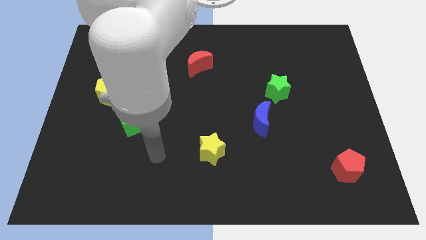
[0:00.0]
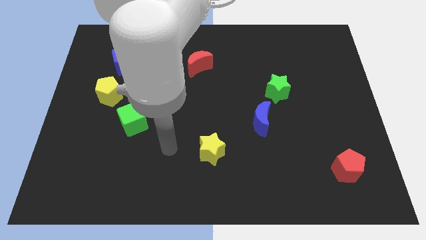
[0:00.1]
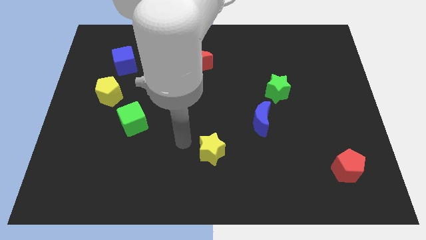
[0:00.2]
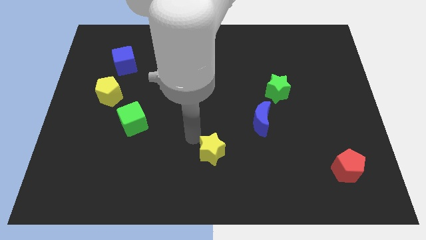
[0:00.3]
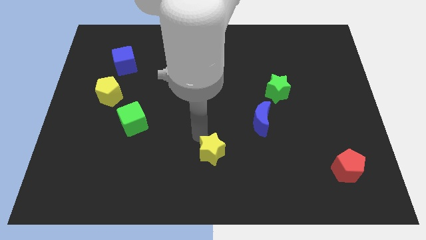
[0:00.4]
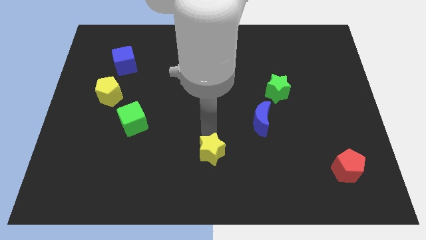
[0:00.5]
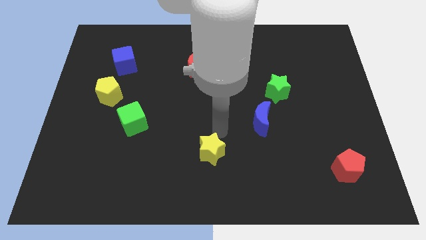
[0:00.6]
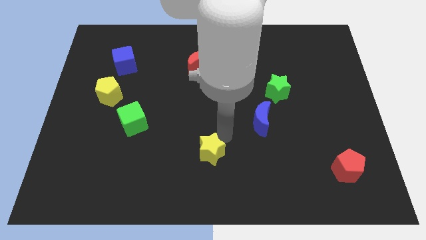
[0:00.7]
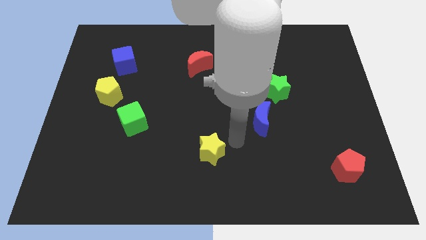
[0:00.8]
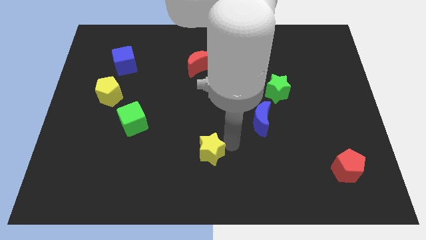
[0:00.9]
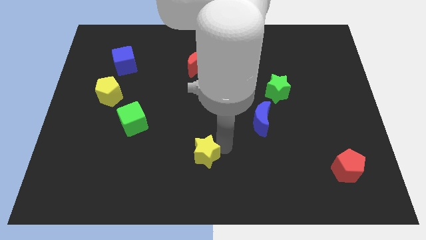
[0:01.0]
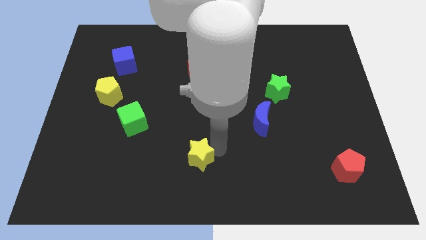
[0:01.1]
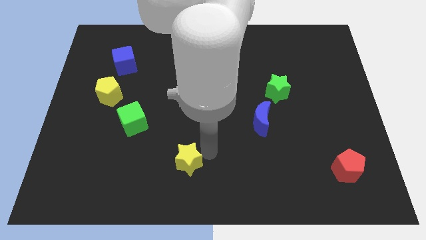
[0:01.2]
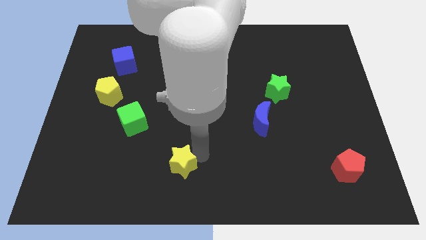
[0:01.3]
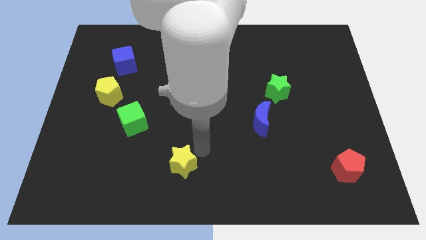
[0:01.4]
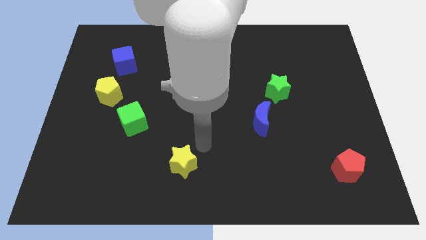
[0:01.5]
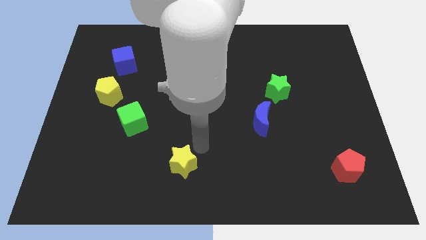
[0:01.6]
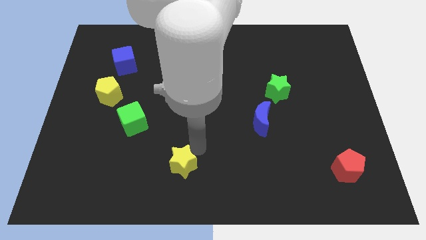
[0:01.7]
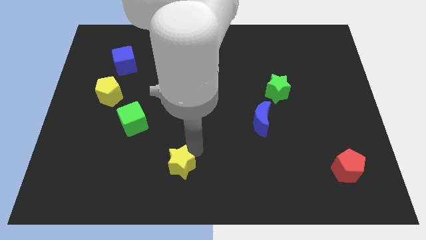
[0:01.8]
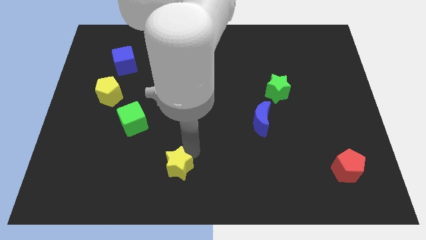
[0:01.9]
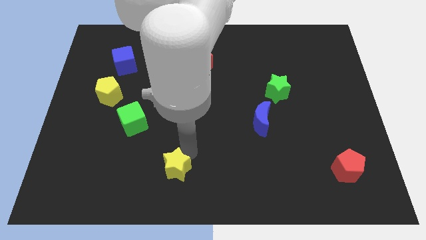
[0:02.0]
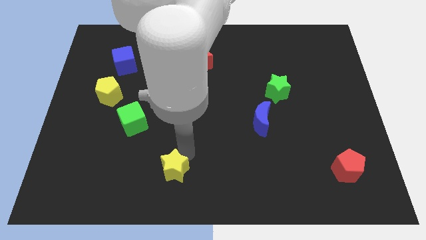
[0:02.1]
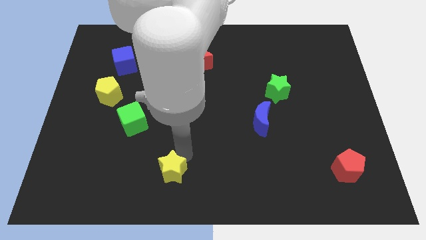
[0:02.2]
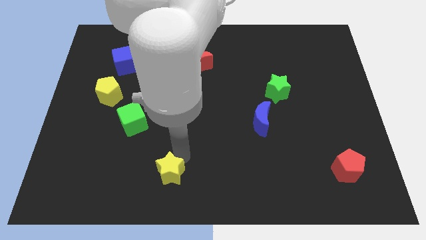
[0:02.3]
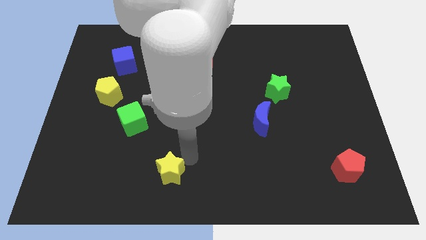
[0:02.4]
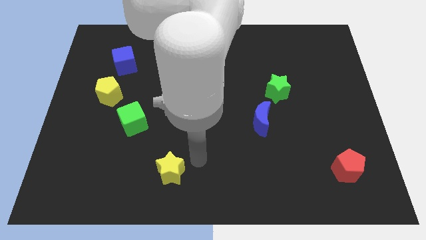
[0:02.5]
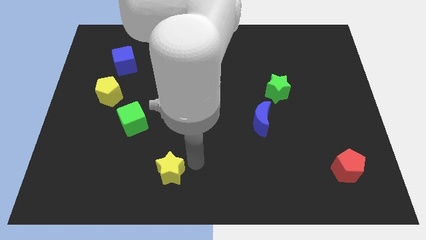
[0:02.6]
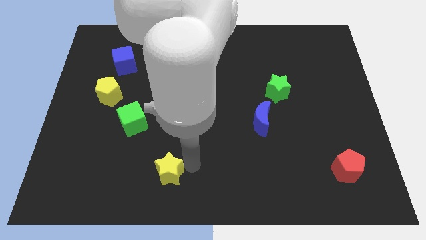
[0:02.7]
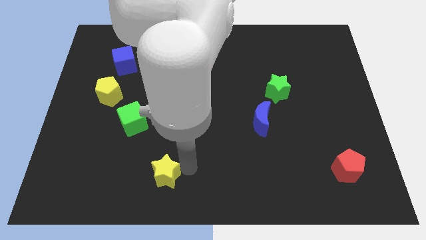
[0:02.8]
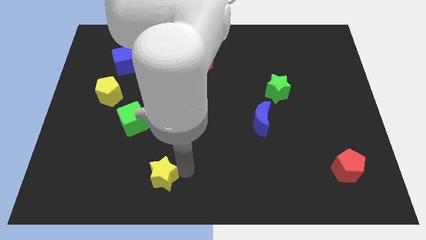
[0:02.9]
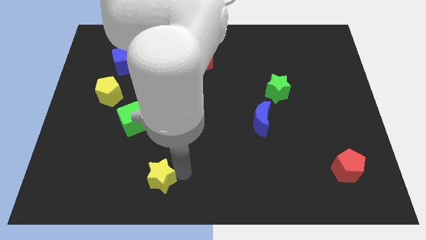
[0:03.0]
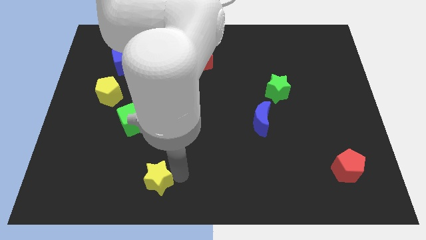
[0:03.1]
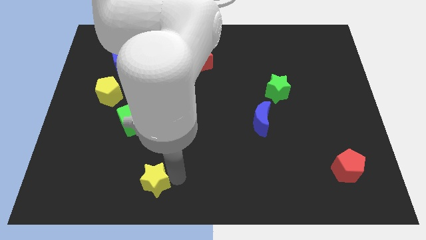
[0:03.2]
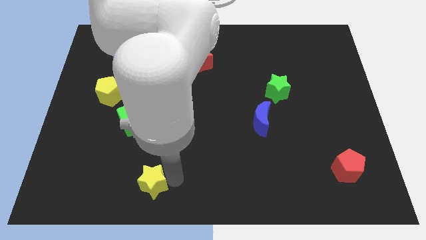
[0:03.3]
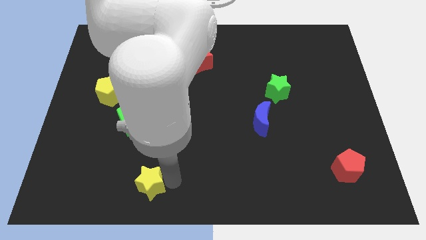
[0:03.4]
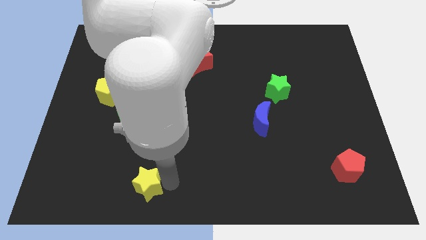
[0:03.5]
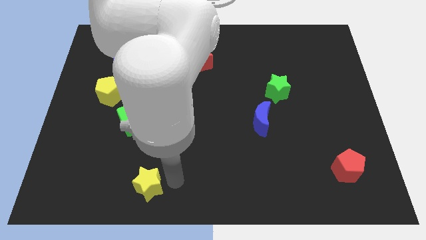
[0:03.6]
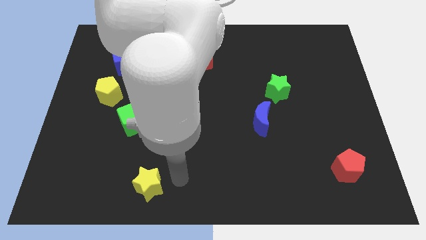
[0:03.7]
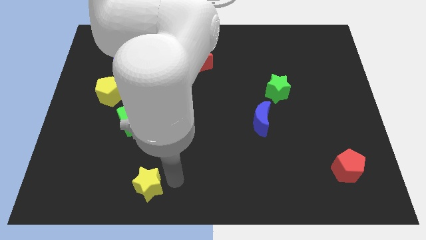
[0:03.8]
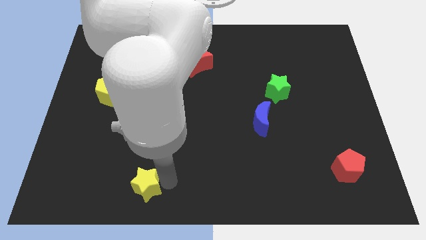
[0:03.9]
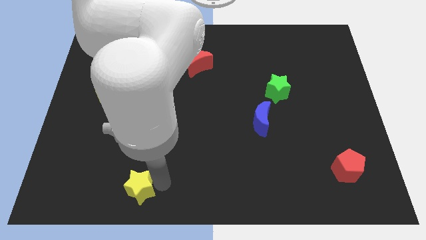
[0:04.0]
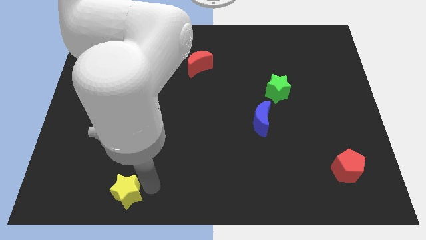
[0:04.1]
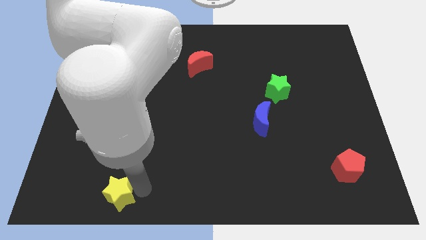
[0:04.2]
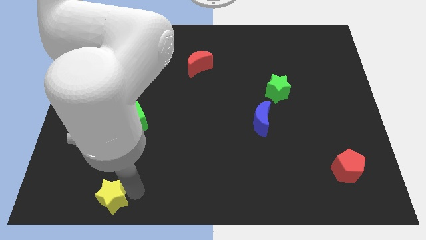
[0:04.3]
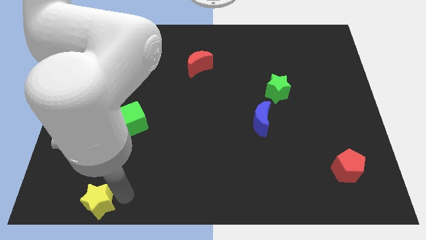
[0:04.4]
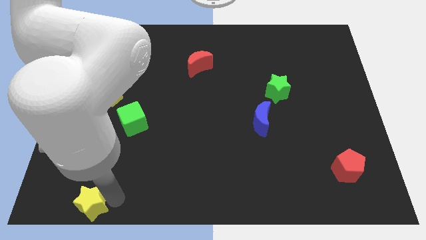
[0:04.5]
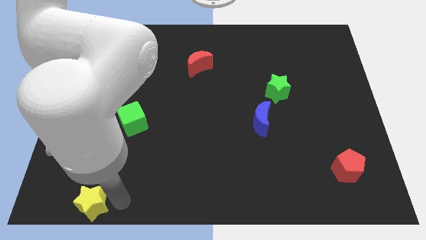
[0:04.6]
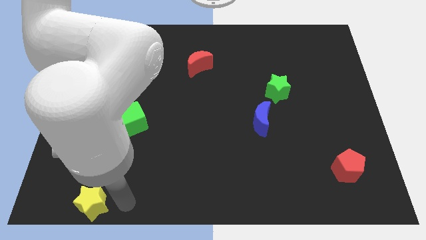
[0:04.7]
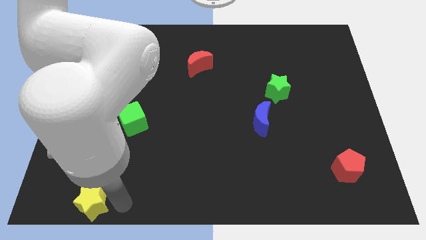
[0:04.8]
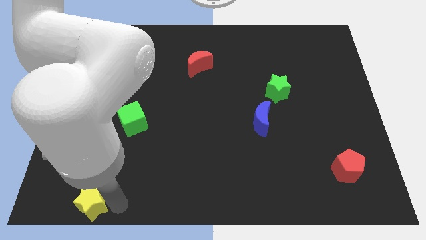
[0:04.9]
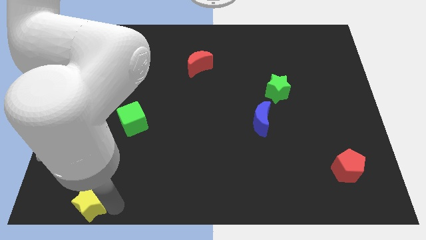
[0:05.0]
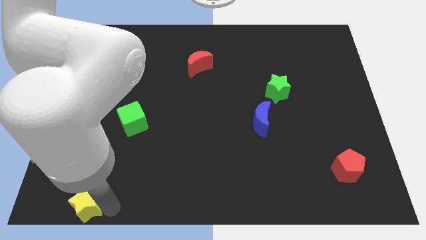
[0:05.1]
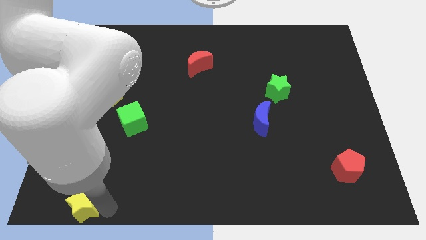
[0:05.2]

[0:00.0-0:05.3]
slide the yellow star to the lower left corner

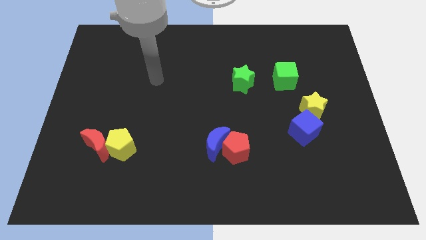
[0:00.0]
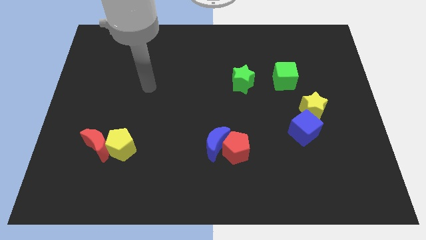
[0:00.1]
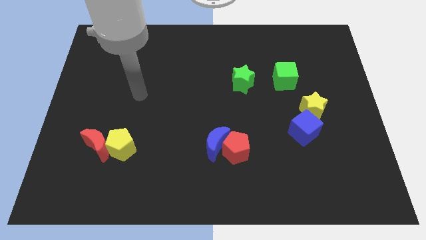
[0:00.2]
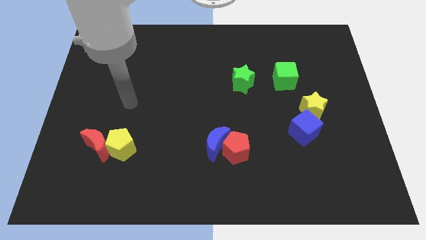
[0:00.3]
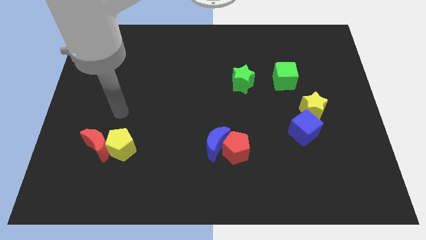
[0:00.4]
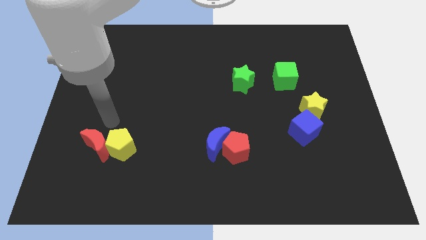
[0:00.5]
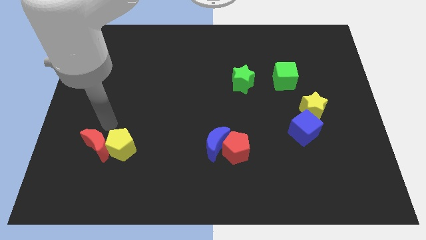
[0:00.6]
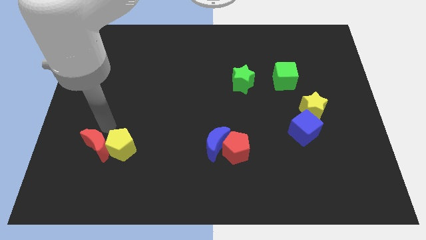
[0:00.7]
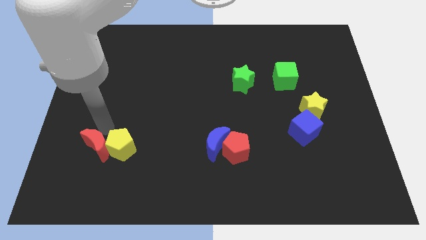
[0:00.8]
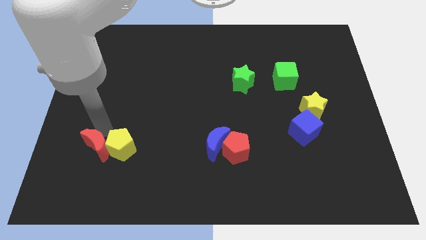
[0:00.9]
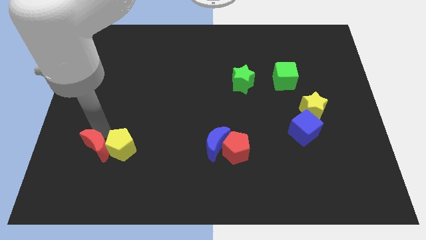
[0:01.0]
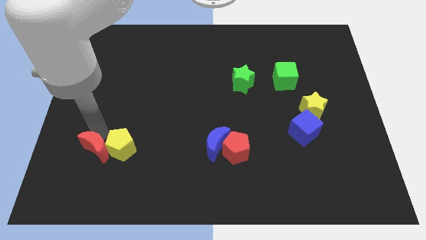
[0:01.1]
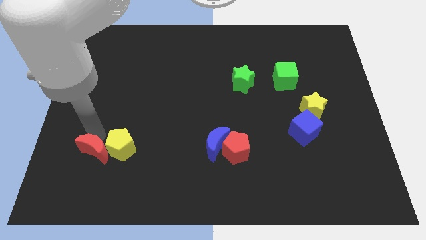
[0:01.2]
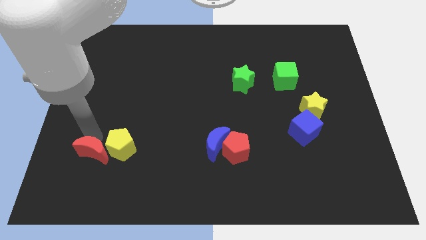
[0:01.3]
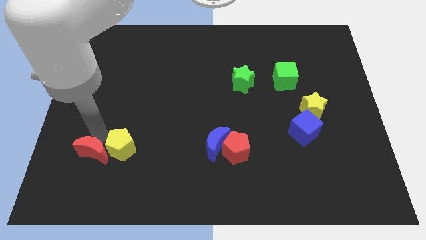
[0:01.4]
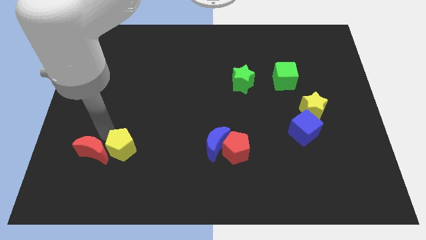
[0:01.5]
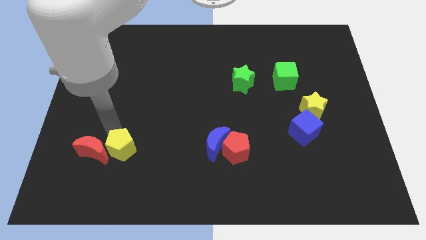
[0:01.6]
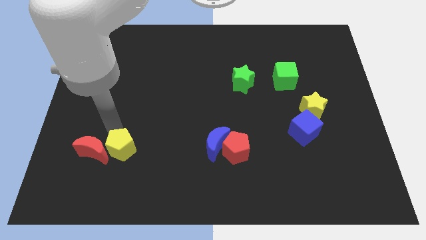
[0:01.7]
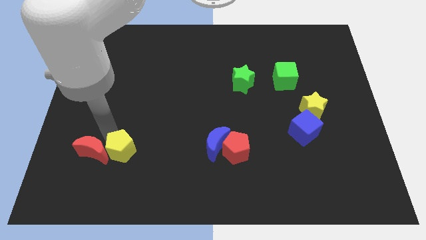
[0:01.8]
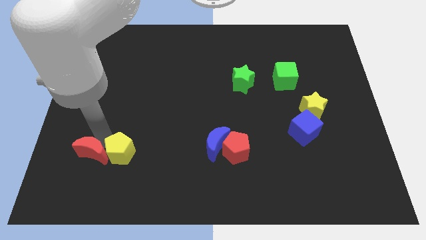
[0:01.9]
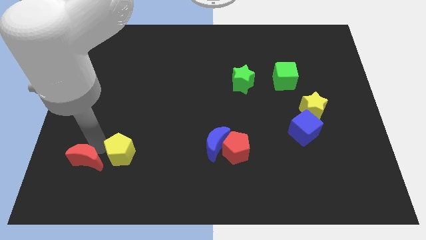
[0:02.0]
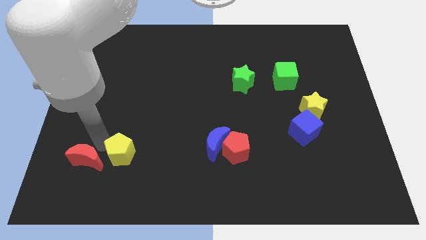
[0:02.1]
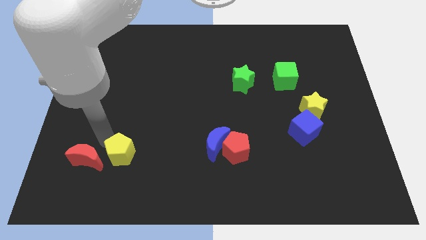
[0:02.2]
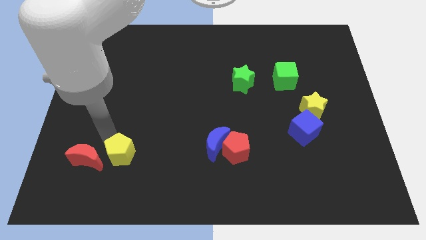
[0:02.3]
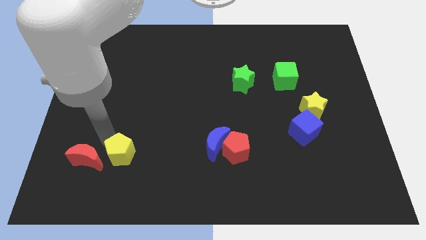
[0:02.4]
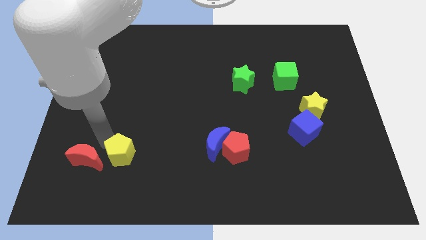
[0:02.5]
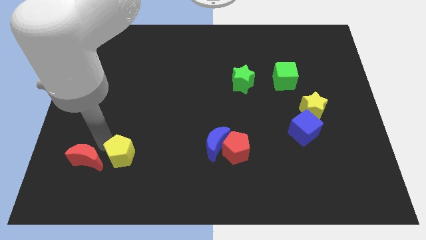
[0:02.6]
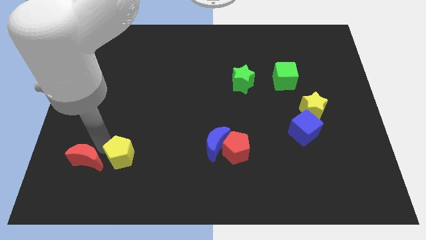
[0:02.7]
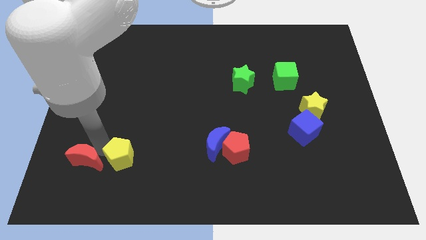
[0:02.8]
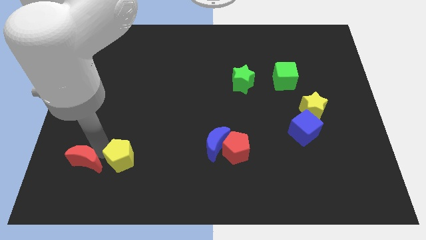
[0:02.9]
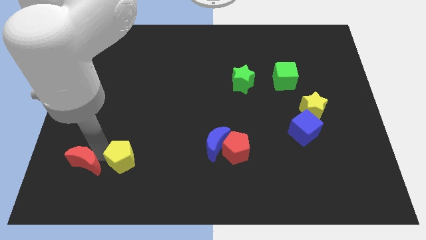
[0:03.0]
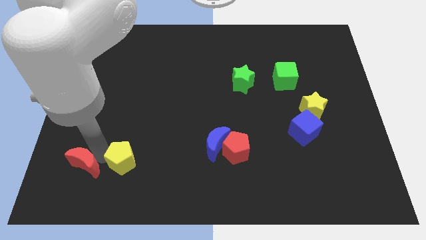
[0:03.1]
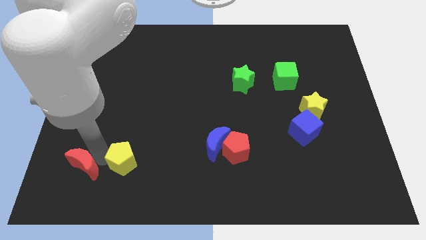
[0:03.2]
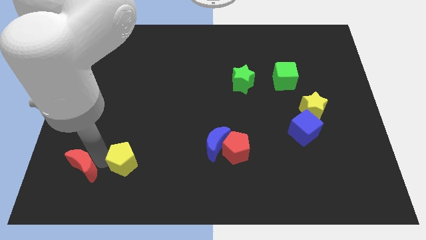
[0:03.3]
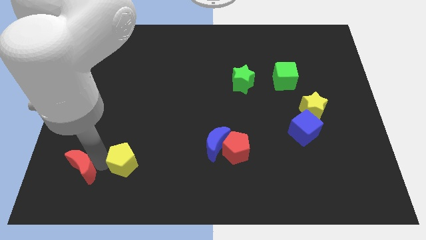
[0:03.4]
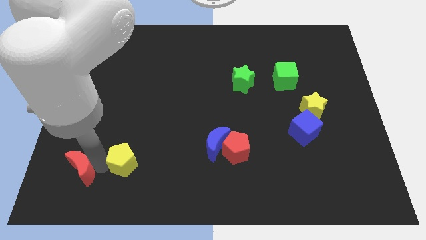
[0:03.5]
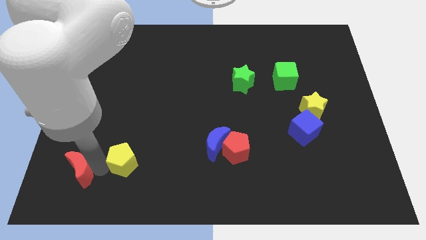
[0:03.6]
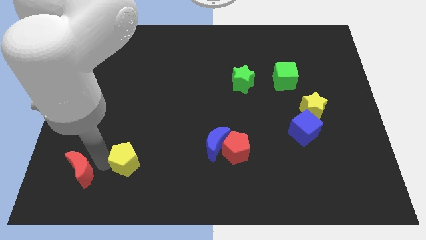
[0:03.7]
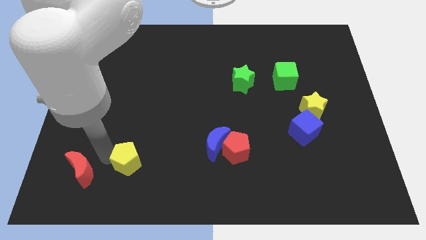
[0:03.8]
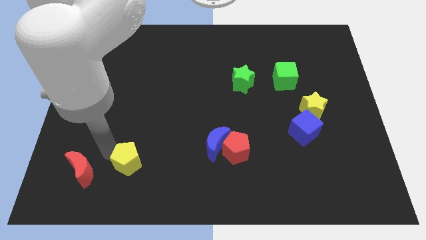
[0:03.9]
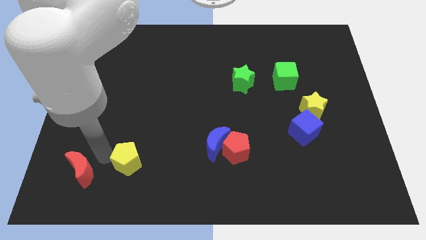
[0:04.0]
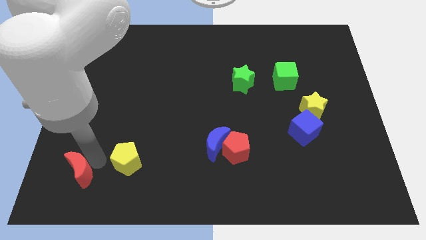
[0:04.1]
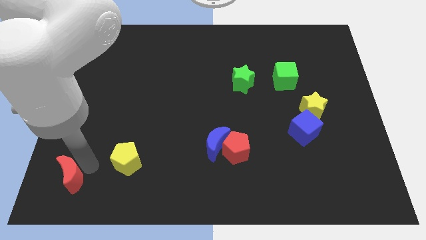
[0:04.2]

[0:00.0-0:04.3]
move the red moon to the bottom left corner
